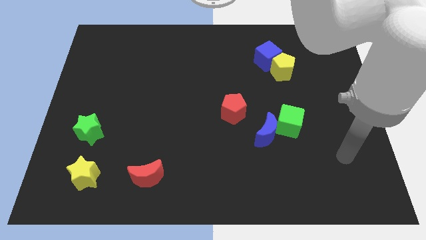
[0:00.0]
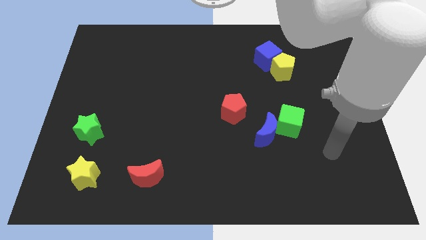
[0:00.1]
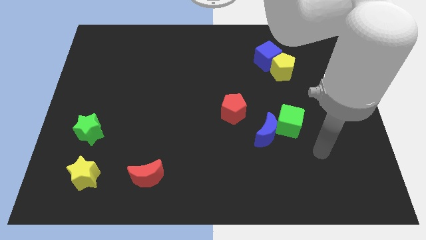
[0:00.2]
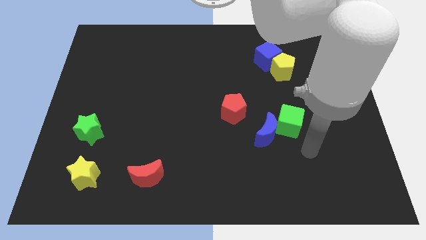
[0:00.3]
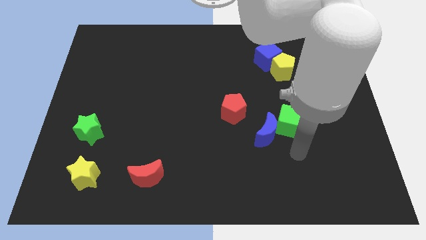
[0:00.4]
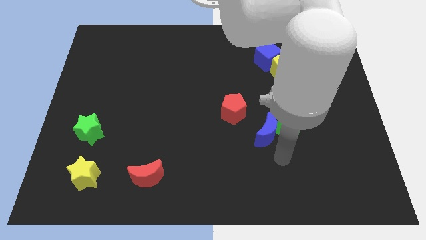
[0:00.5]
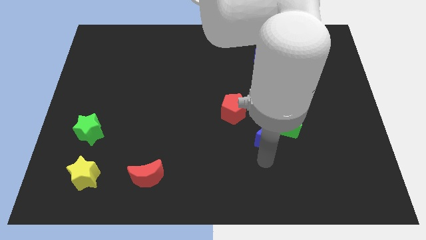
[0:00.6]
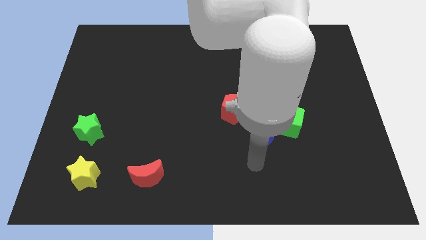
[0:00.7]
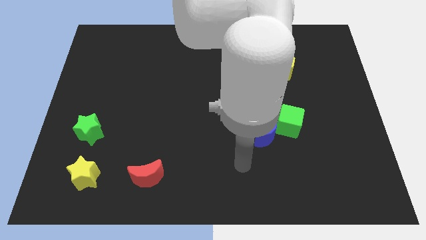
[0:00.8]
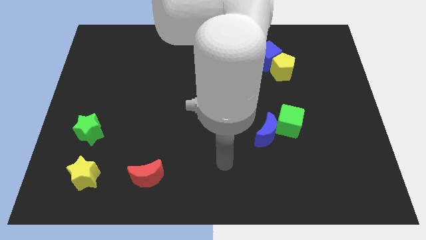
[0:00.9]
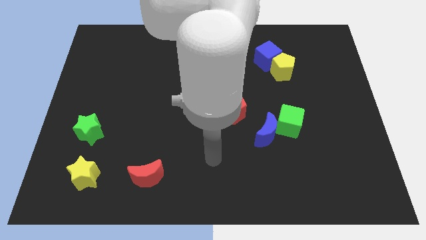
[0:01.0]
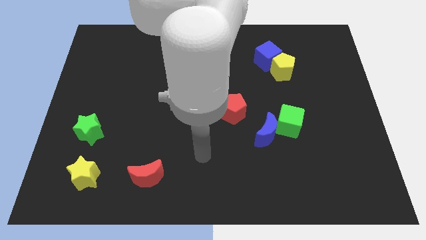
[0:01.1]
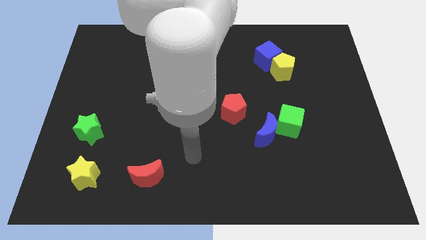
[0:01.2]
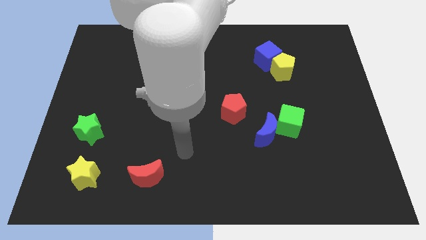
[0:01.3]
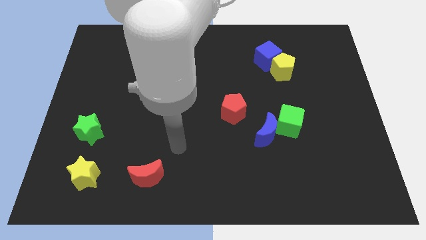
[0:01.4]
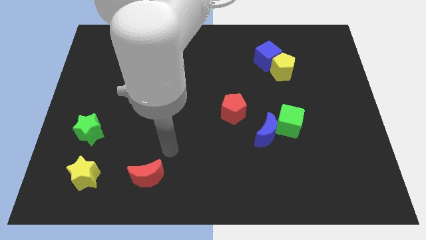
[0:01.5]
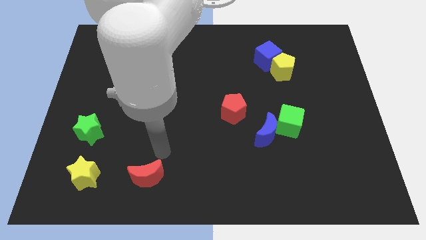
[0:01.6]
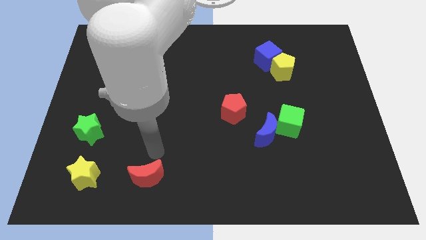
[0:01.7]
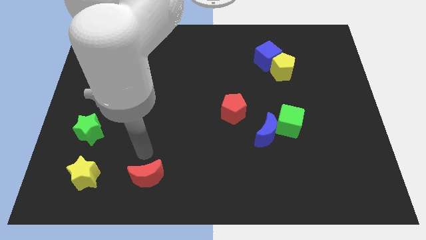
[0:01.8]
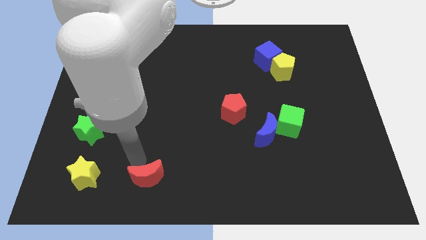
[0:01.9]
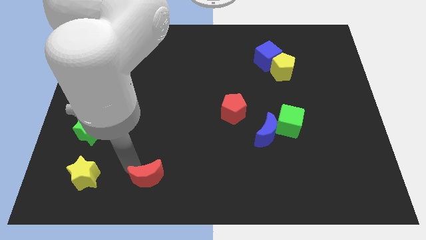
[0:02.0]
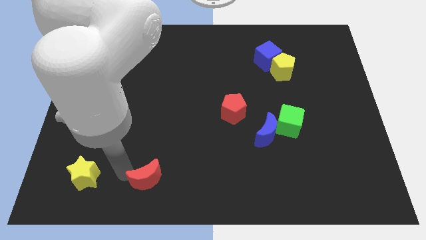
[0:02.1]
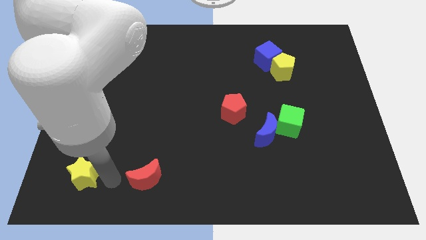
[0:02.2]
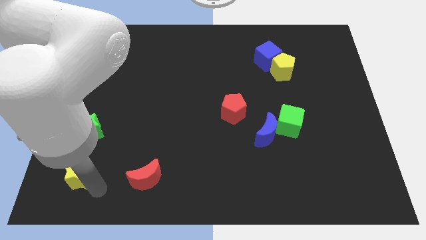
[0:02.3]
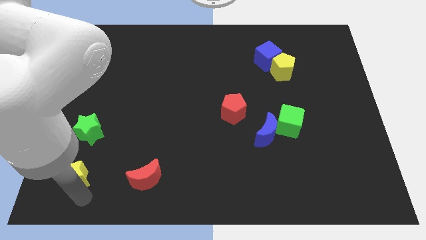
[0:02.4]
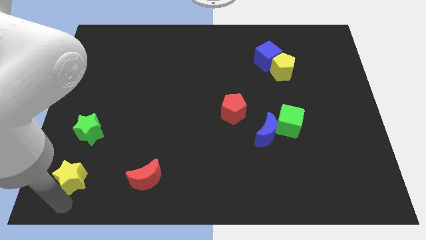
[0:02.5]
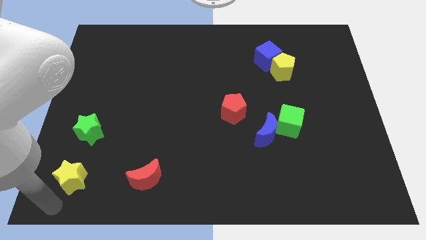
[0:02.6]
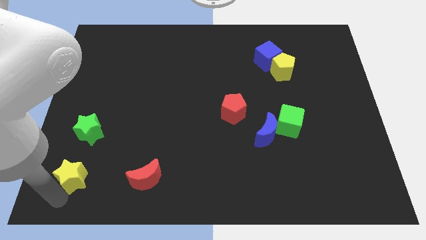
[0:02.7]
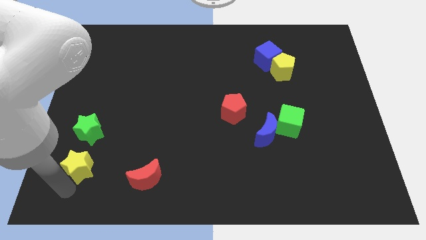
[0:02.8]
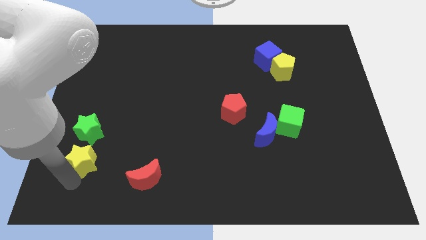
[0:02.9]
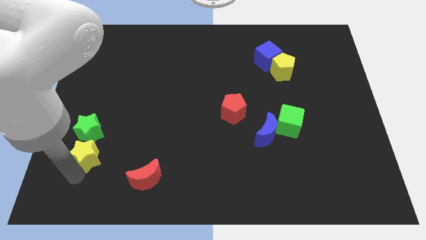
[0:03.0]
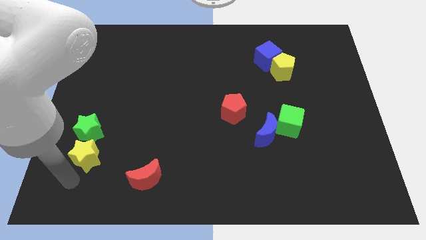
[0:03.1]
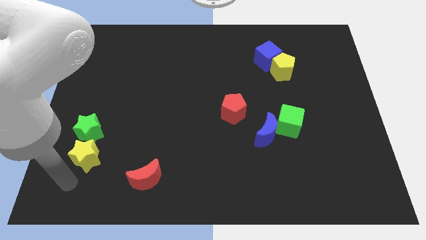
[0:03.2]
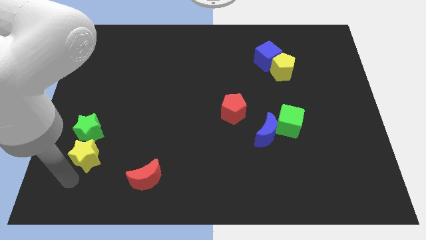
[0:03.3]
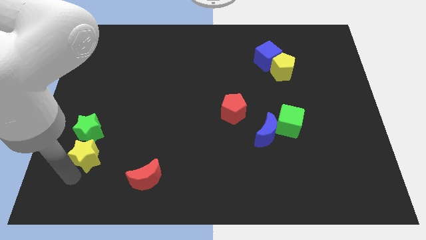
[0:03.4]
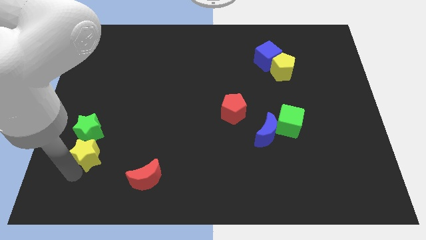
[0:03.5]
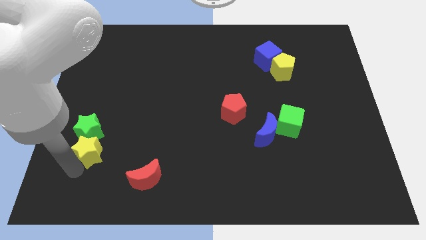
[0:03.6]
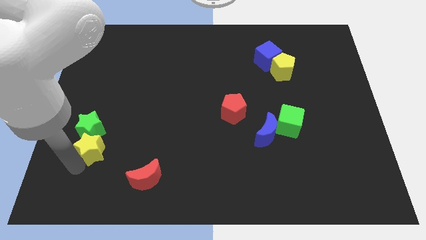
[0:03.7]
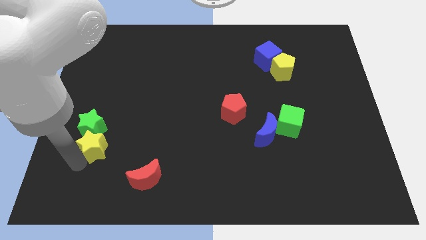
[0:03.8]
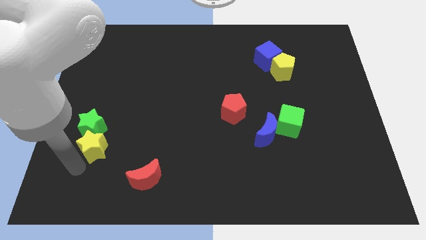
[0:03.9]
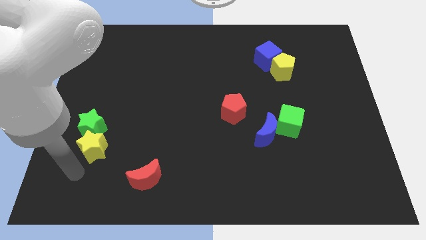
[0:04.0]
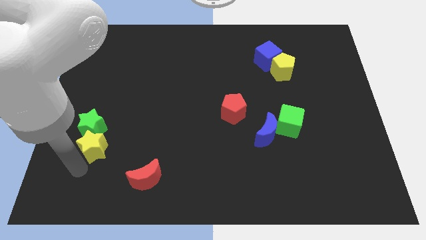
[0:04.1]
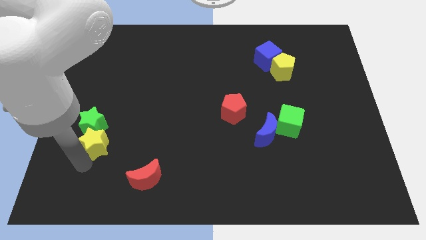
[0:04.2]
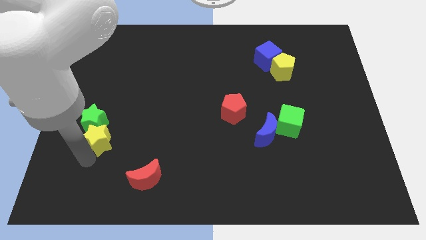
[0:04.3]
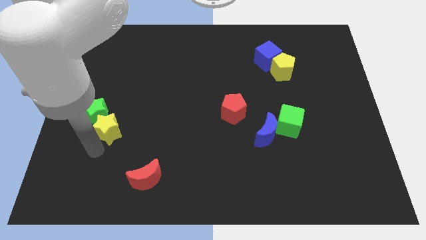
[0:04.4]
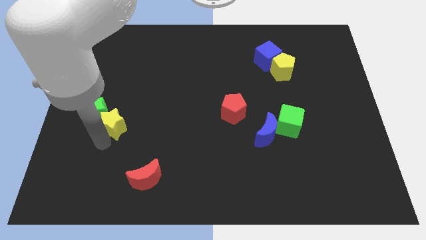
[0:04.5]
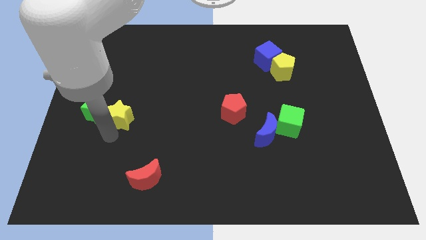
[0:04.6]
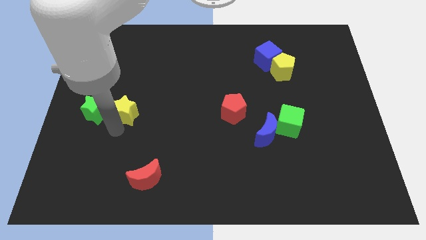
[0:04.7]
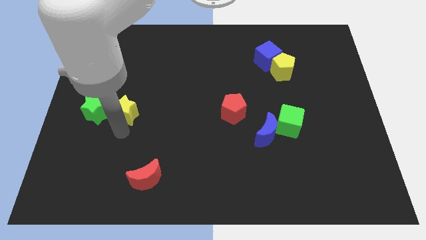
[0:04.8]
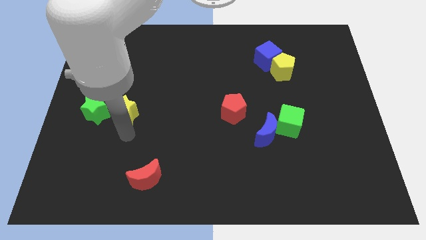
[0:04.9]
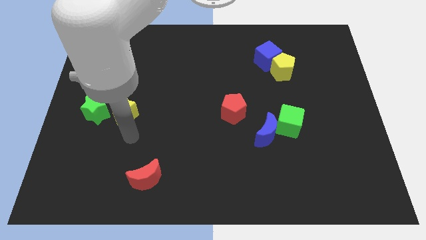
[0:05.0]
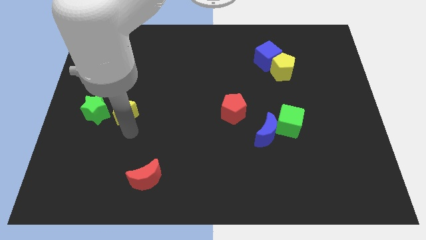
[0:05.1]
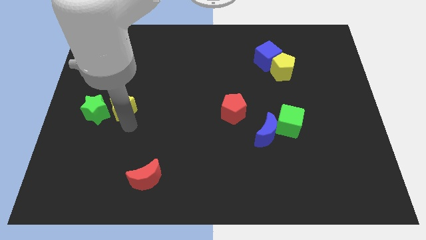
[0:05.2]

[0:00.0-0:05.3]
push the yellow star to the top right of the green star

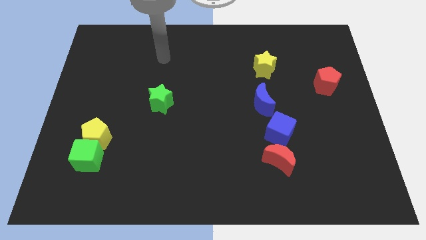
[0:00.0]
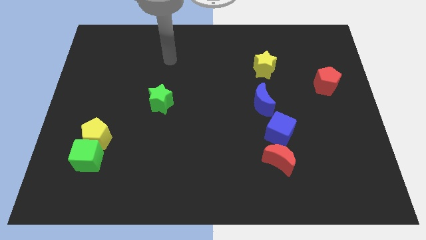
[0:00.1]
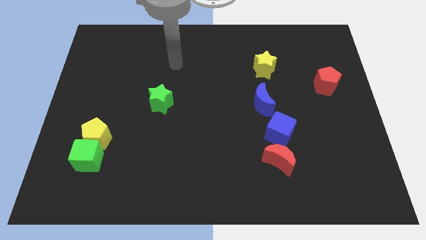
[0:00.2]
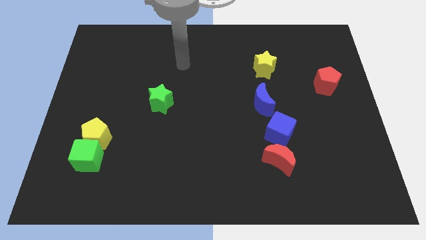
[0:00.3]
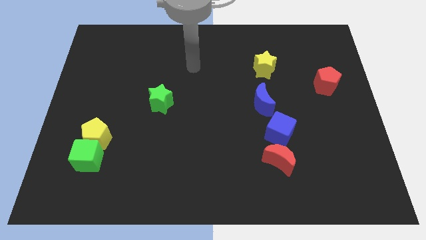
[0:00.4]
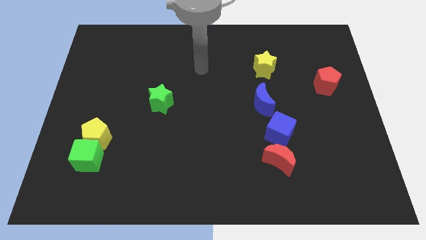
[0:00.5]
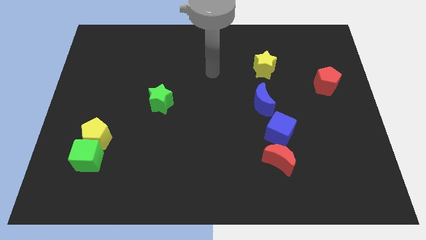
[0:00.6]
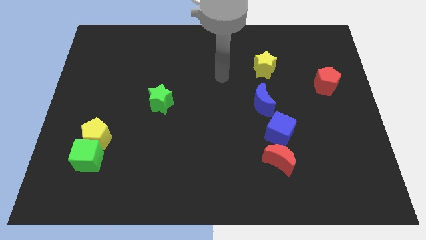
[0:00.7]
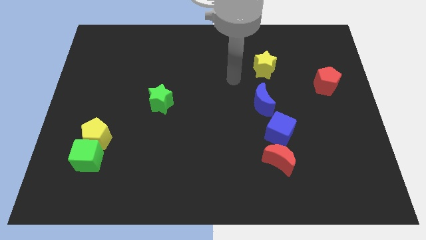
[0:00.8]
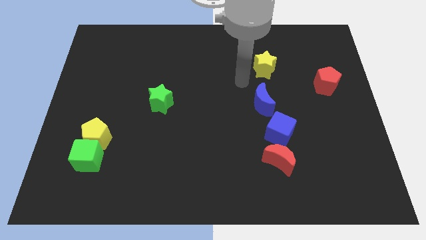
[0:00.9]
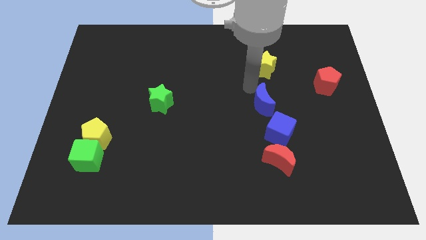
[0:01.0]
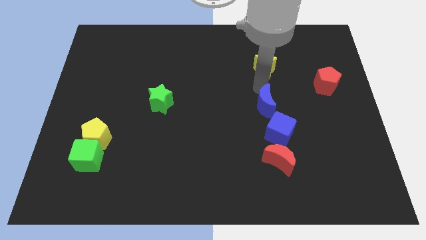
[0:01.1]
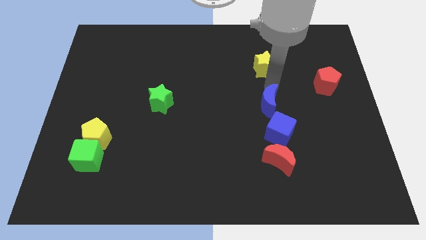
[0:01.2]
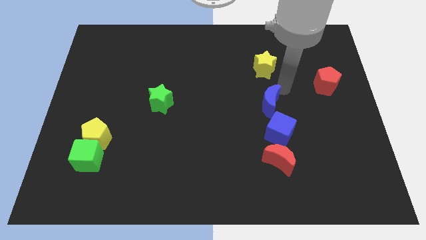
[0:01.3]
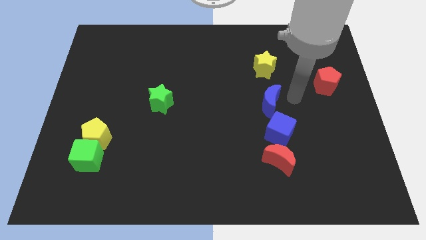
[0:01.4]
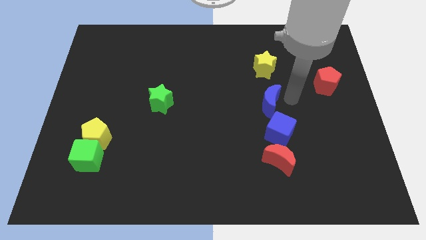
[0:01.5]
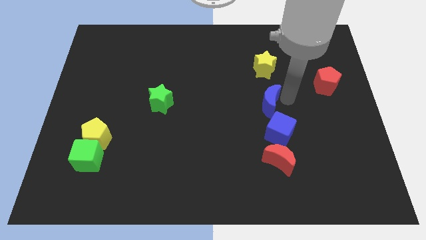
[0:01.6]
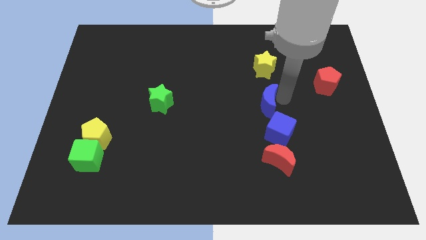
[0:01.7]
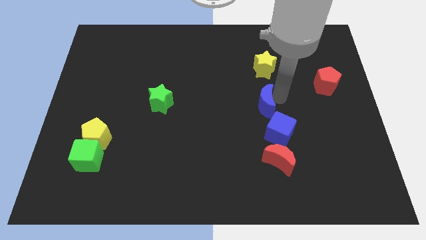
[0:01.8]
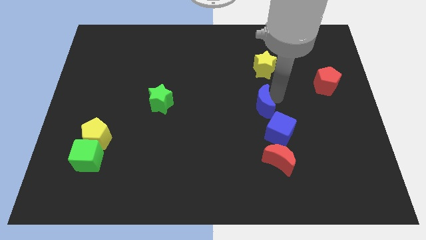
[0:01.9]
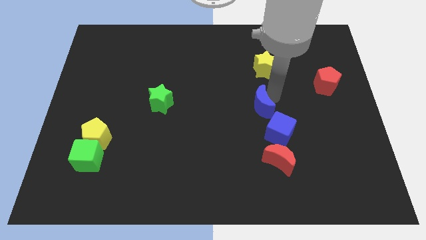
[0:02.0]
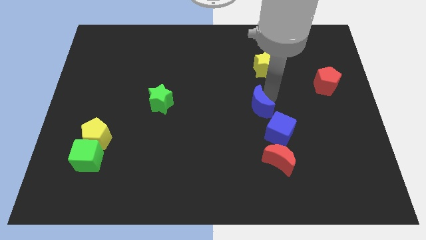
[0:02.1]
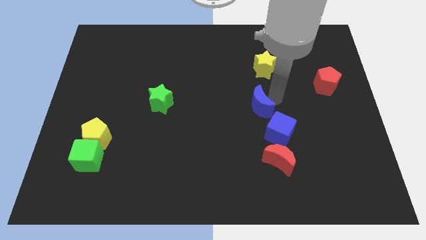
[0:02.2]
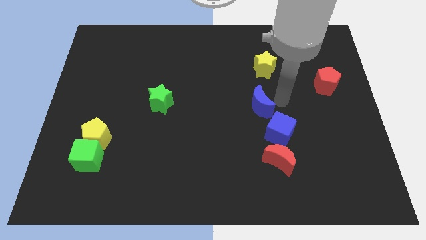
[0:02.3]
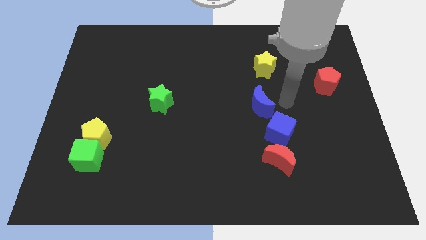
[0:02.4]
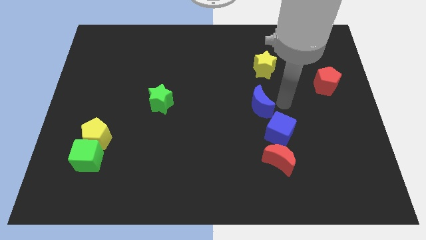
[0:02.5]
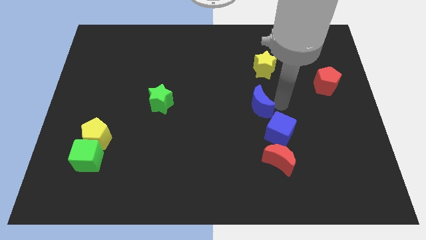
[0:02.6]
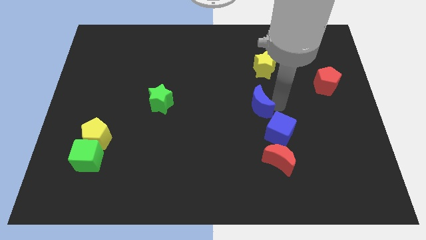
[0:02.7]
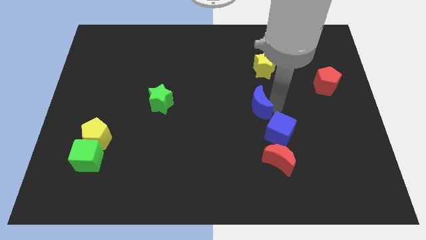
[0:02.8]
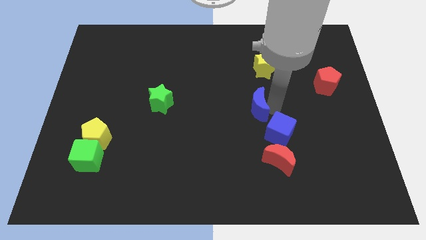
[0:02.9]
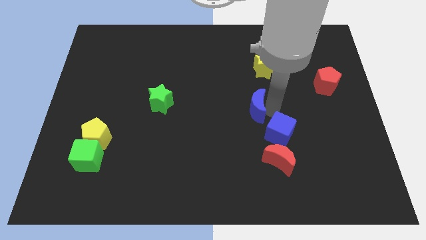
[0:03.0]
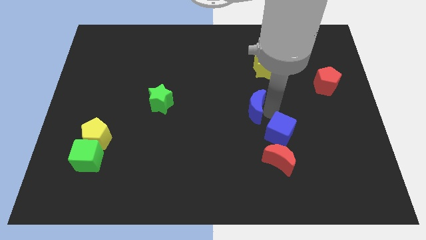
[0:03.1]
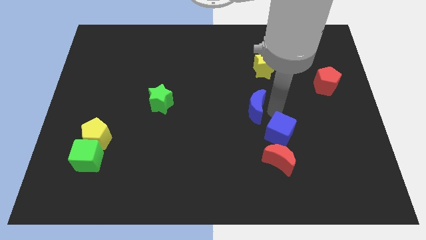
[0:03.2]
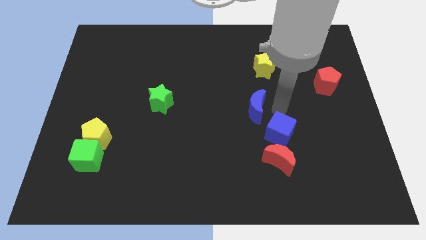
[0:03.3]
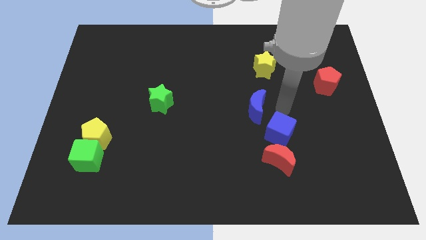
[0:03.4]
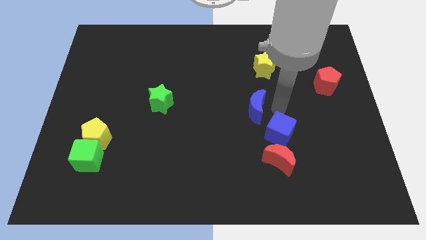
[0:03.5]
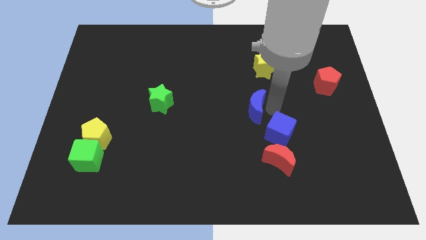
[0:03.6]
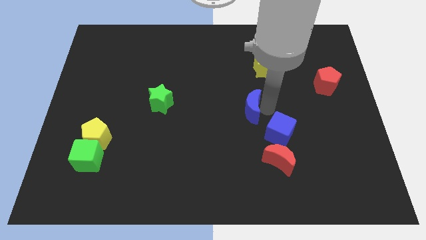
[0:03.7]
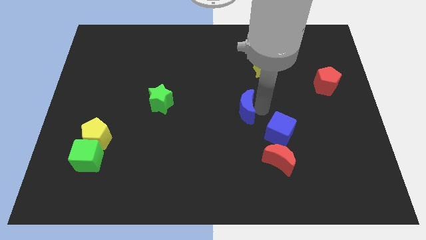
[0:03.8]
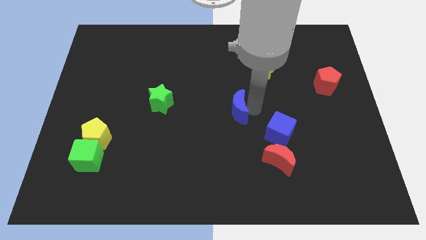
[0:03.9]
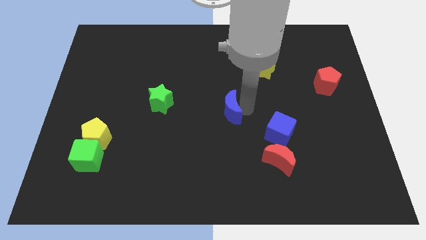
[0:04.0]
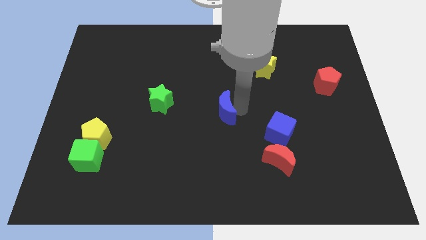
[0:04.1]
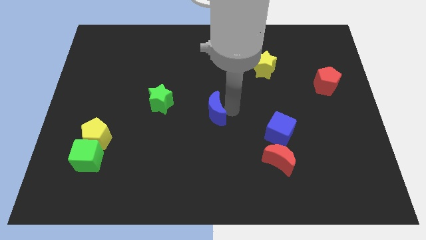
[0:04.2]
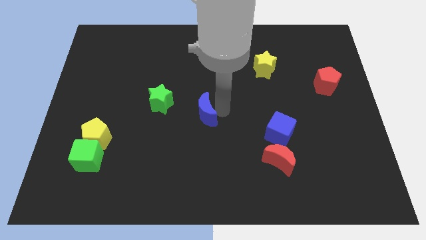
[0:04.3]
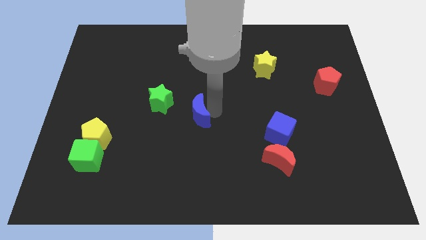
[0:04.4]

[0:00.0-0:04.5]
slide the blue moon to the bottom right of the green star
